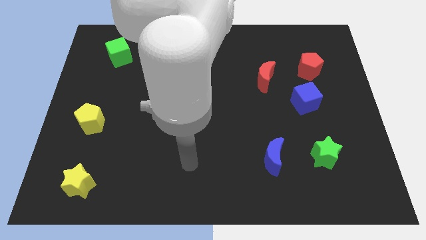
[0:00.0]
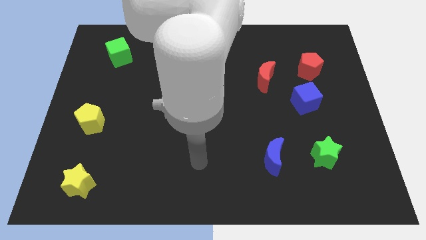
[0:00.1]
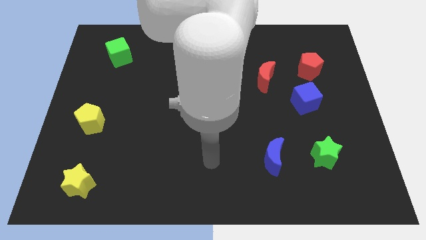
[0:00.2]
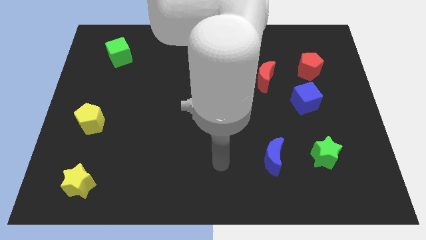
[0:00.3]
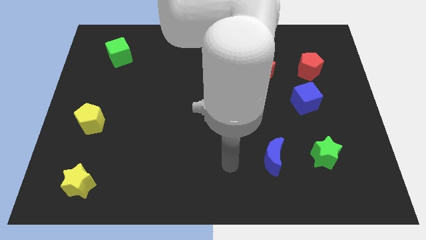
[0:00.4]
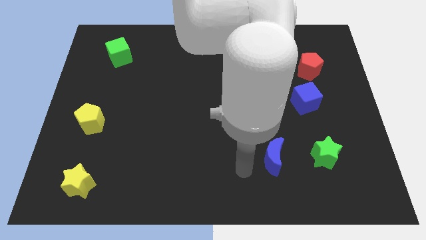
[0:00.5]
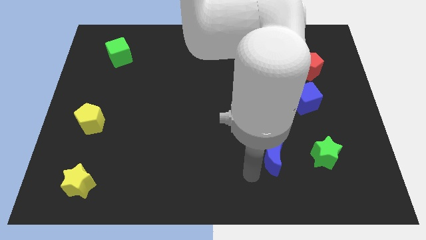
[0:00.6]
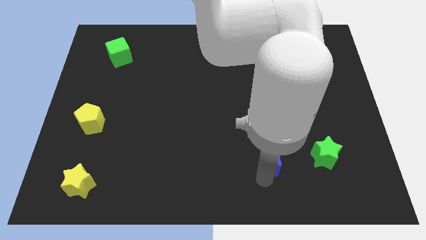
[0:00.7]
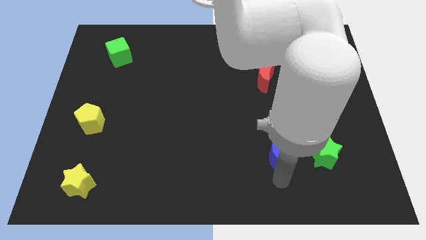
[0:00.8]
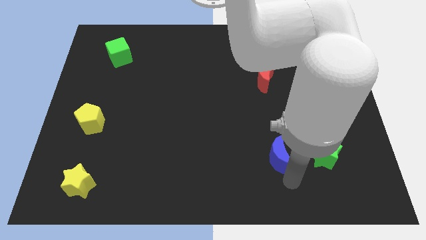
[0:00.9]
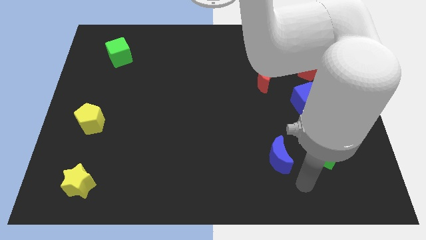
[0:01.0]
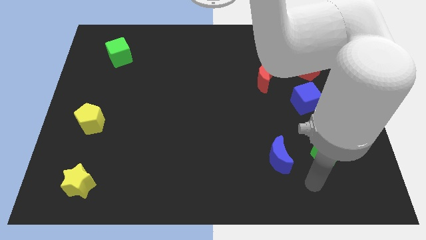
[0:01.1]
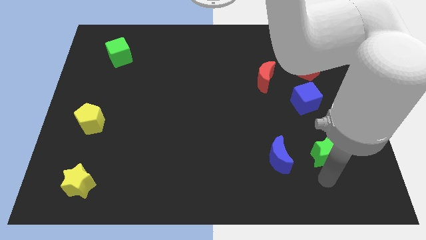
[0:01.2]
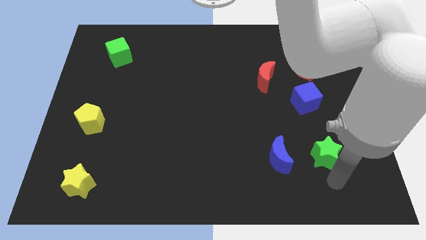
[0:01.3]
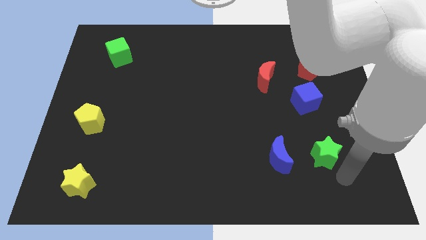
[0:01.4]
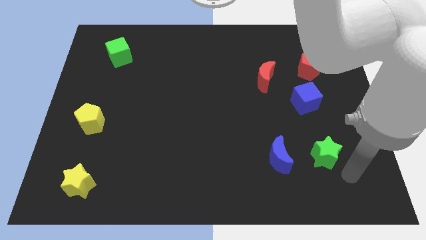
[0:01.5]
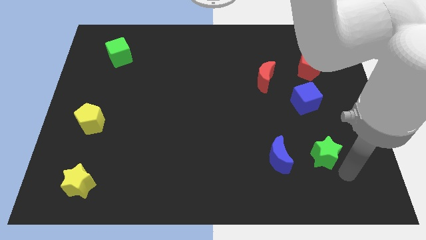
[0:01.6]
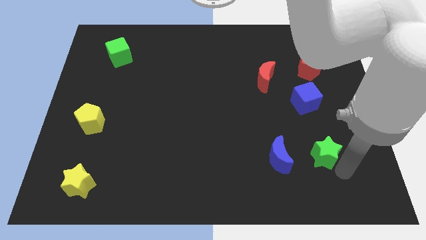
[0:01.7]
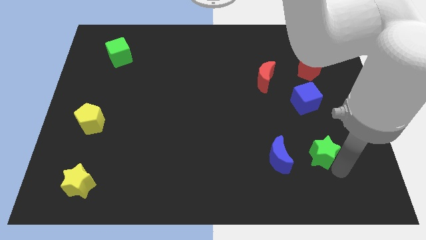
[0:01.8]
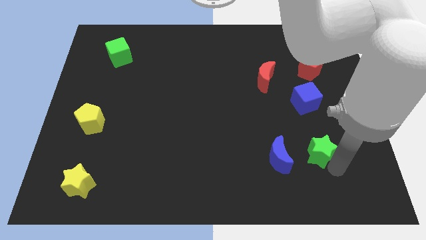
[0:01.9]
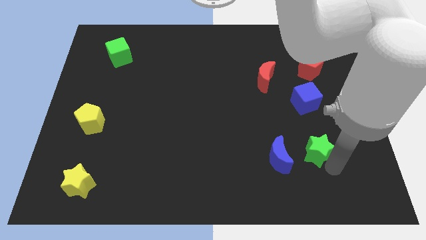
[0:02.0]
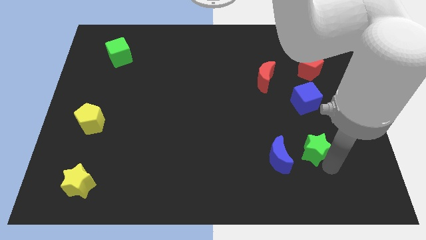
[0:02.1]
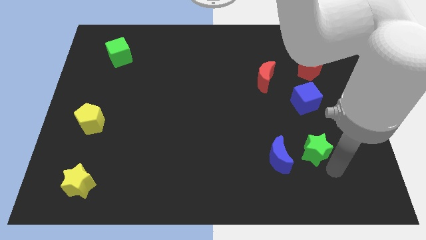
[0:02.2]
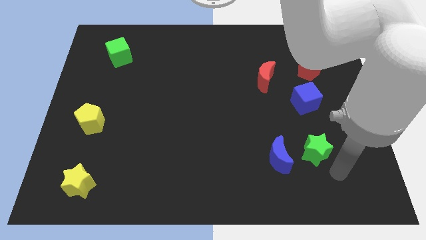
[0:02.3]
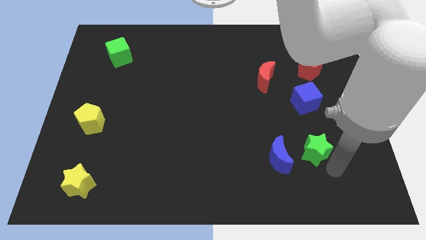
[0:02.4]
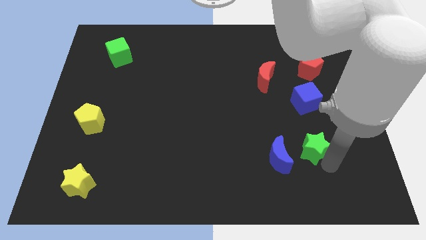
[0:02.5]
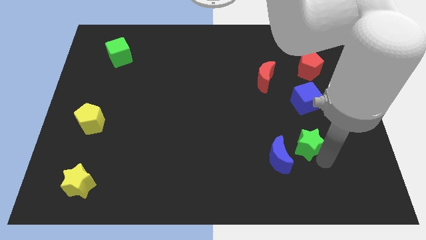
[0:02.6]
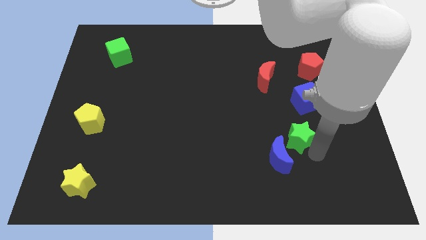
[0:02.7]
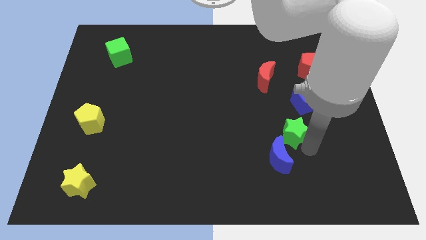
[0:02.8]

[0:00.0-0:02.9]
move the green star slightly upwards and then to the left

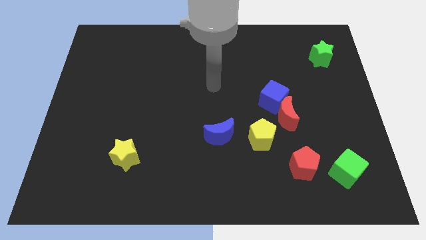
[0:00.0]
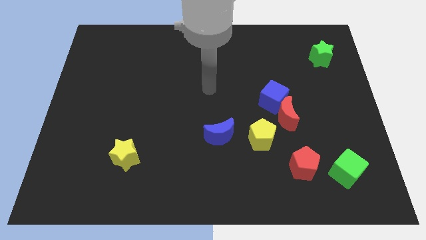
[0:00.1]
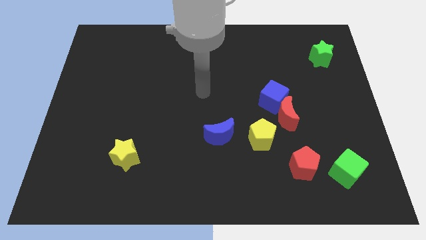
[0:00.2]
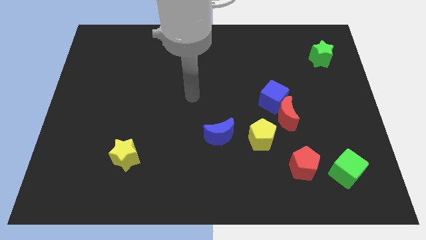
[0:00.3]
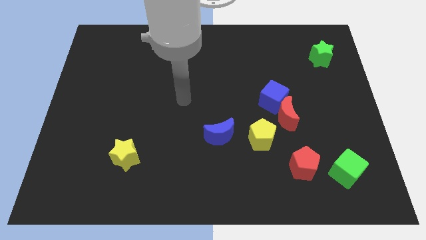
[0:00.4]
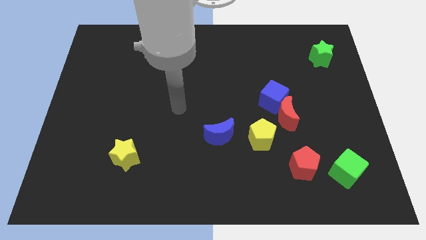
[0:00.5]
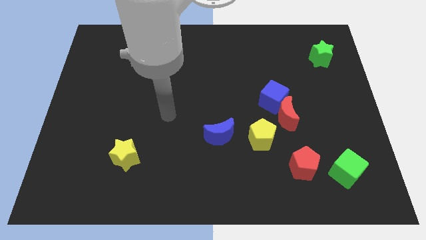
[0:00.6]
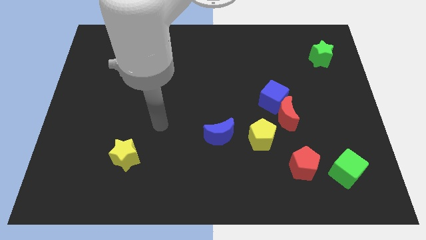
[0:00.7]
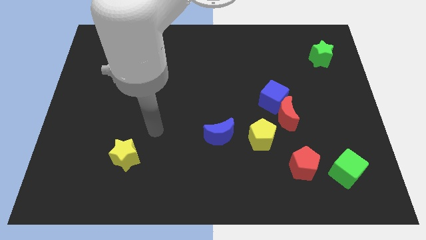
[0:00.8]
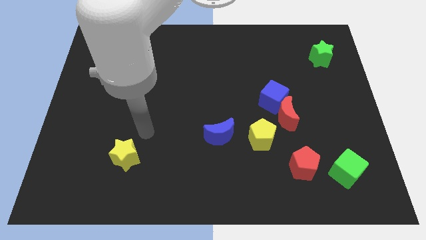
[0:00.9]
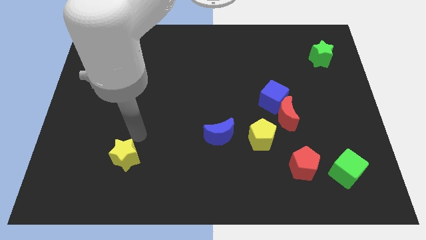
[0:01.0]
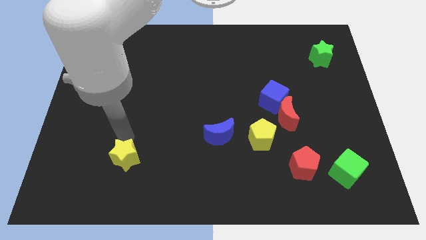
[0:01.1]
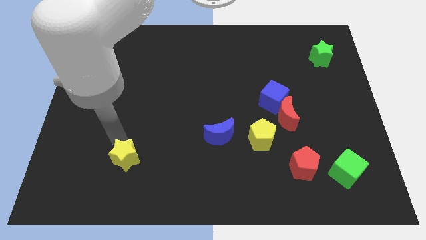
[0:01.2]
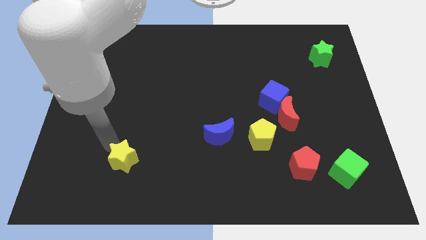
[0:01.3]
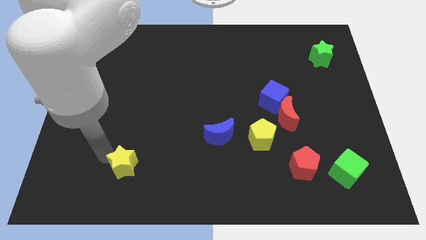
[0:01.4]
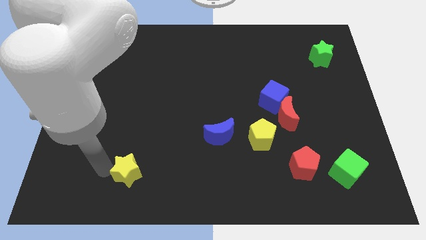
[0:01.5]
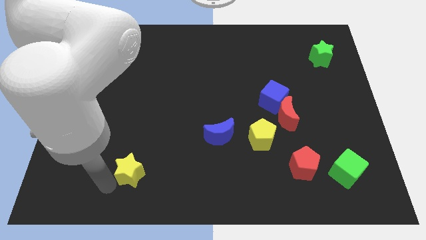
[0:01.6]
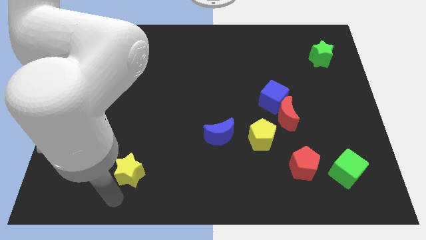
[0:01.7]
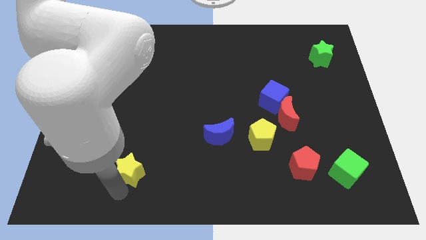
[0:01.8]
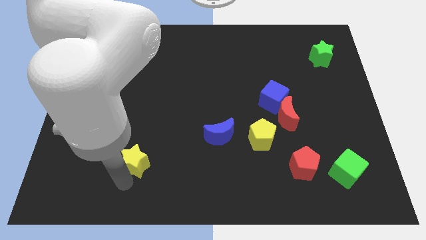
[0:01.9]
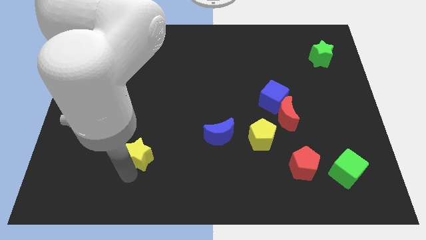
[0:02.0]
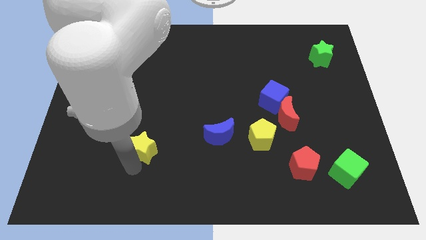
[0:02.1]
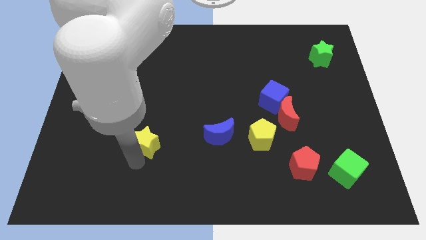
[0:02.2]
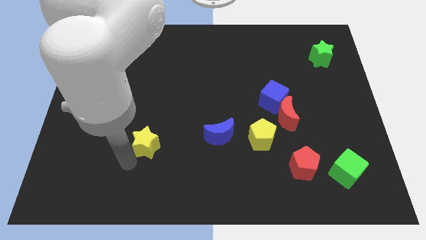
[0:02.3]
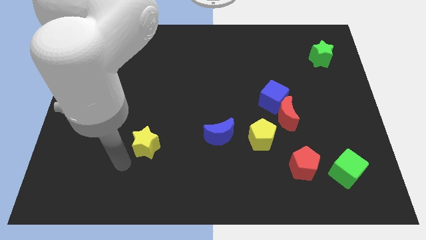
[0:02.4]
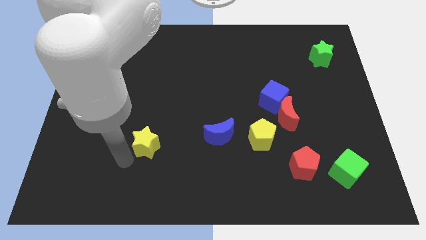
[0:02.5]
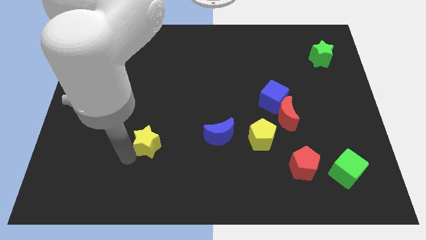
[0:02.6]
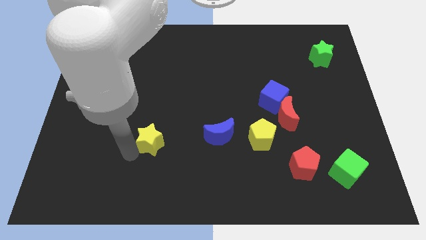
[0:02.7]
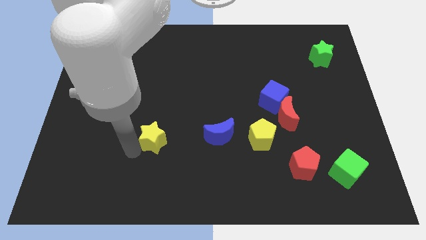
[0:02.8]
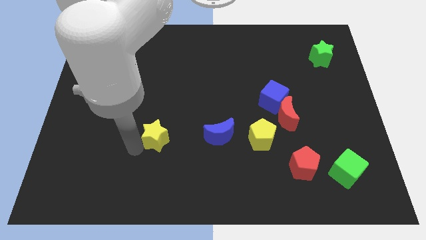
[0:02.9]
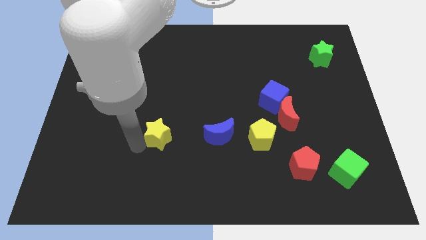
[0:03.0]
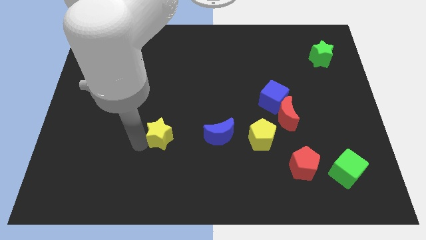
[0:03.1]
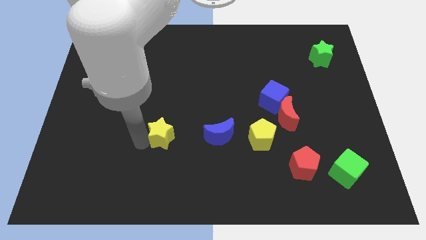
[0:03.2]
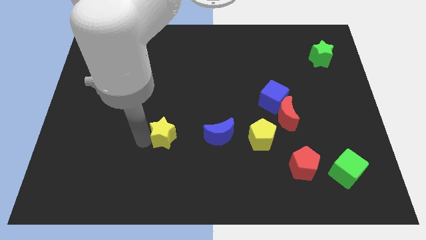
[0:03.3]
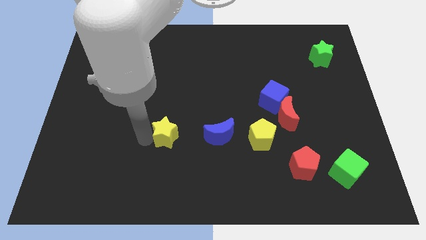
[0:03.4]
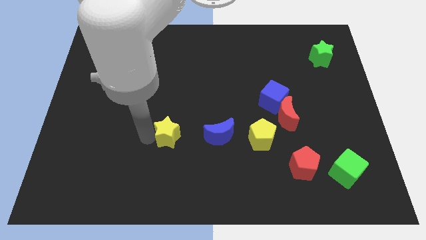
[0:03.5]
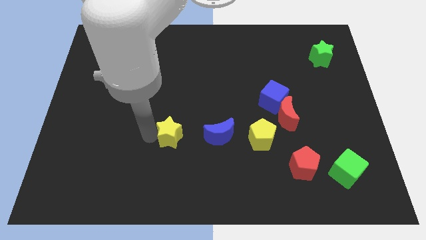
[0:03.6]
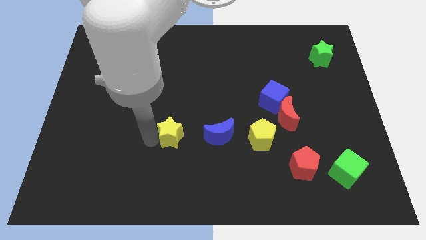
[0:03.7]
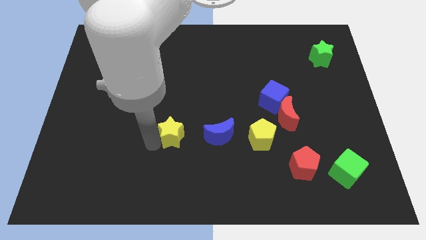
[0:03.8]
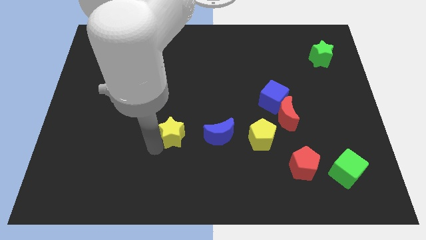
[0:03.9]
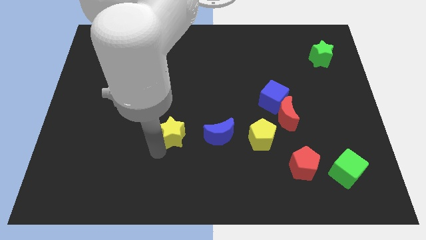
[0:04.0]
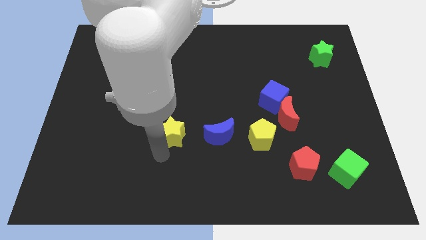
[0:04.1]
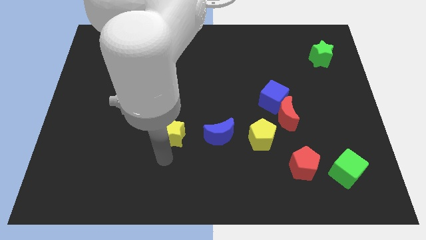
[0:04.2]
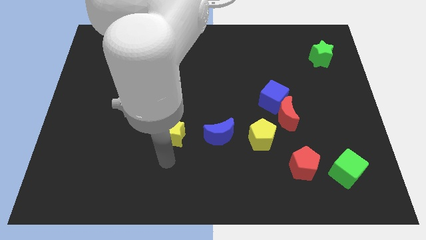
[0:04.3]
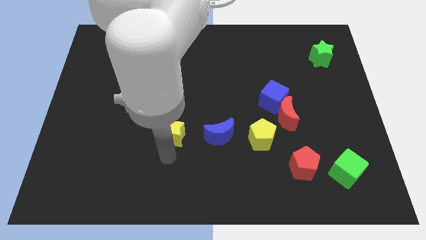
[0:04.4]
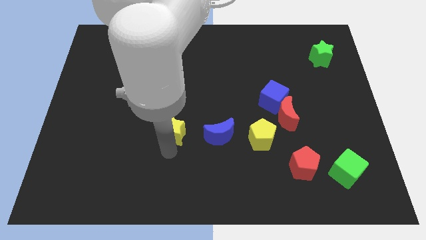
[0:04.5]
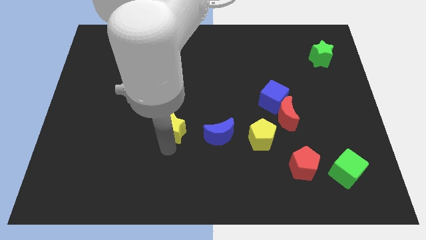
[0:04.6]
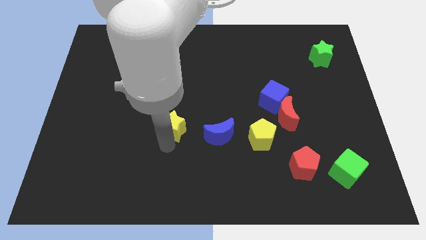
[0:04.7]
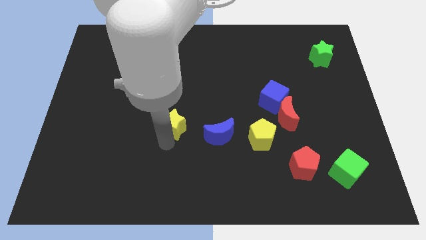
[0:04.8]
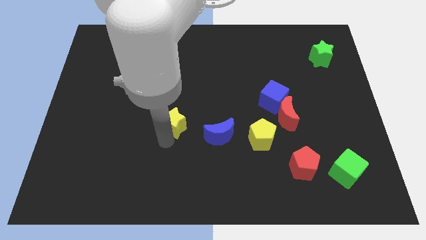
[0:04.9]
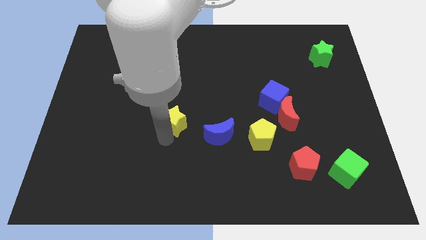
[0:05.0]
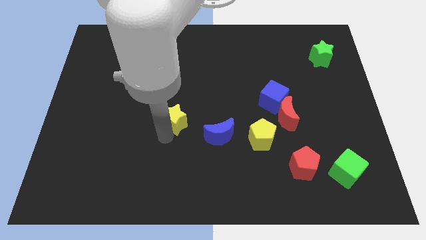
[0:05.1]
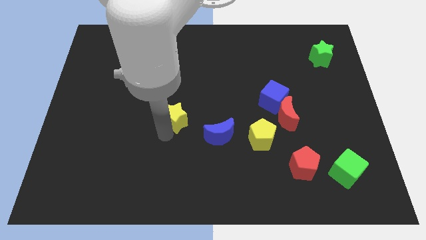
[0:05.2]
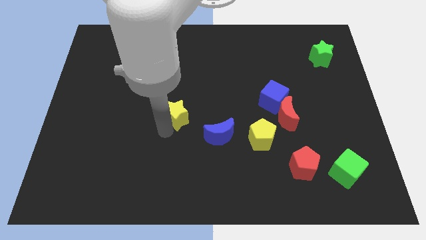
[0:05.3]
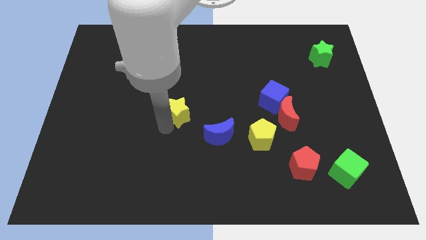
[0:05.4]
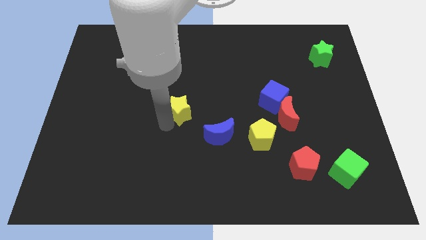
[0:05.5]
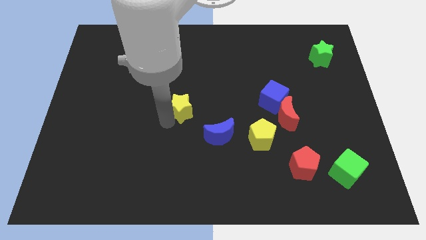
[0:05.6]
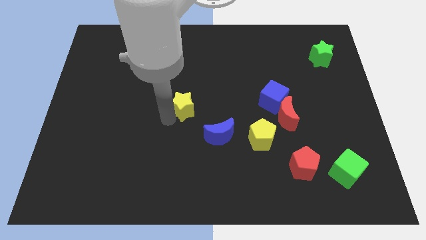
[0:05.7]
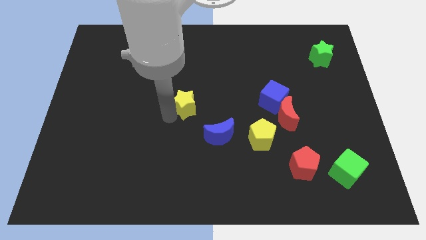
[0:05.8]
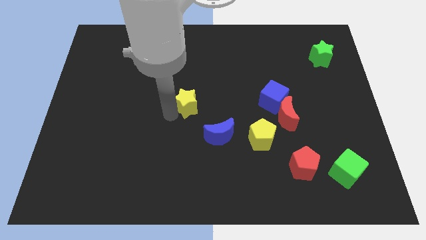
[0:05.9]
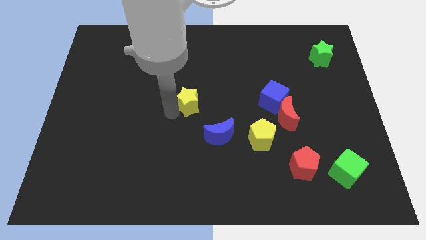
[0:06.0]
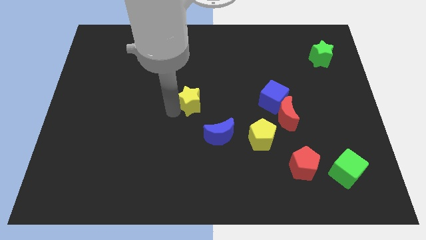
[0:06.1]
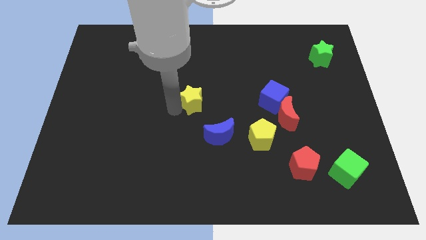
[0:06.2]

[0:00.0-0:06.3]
slide the yellow star diagonally up and to the right
